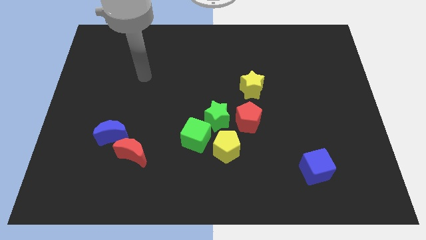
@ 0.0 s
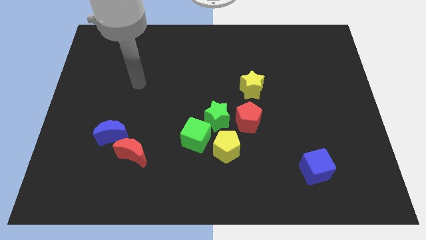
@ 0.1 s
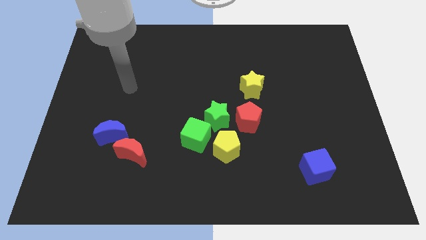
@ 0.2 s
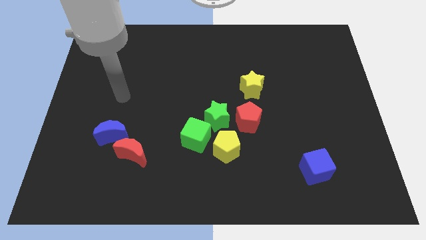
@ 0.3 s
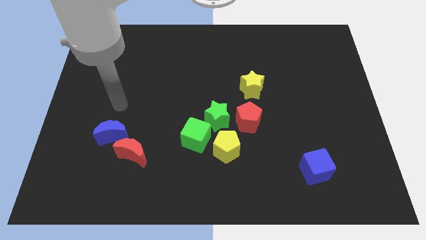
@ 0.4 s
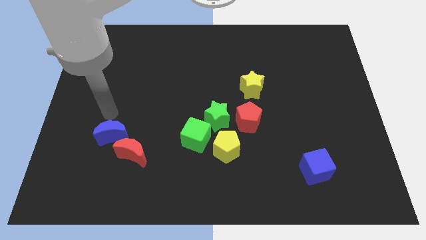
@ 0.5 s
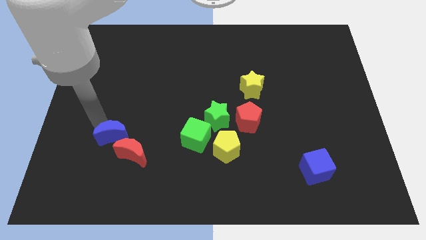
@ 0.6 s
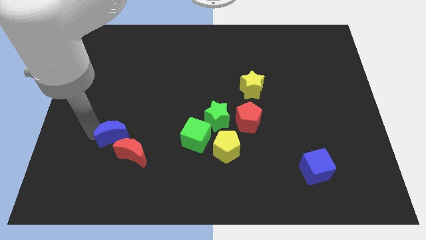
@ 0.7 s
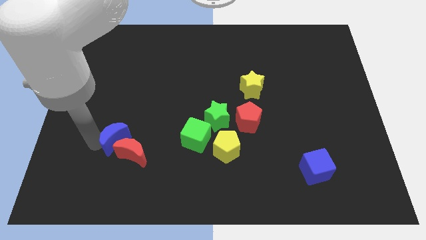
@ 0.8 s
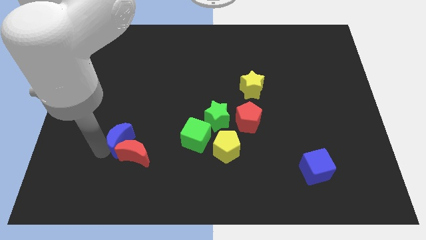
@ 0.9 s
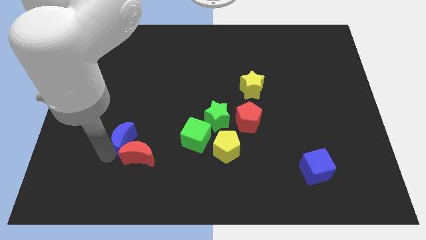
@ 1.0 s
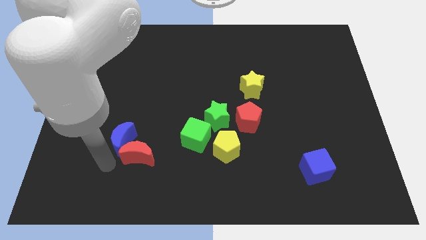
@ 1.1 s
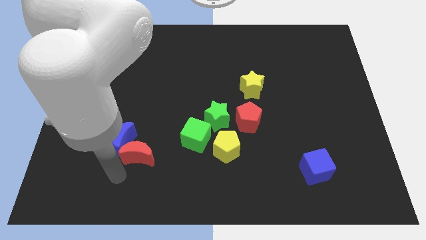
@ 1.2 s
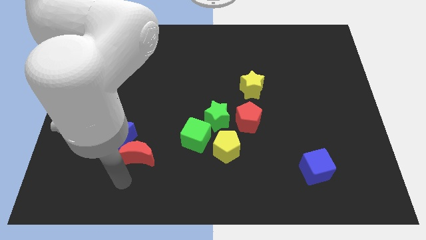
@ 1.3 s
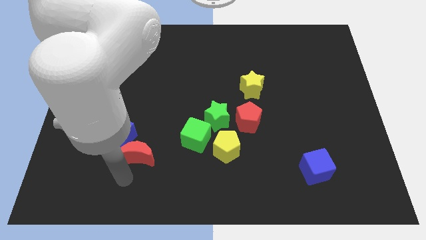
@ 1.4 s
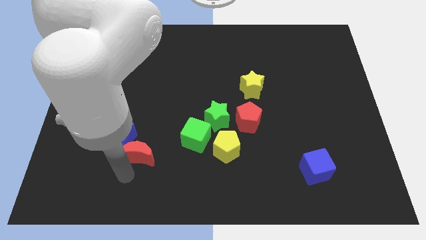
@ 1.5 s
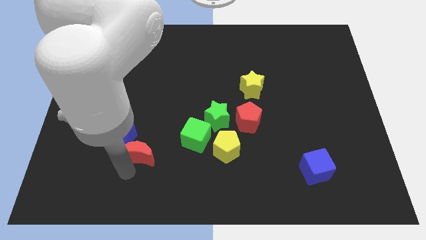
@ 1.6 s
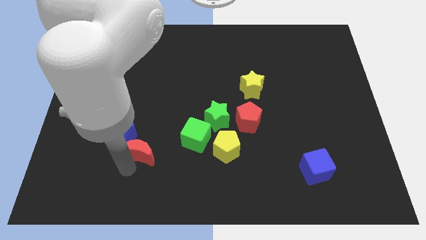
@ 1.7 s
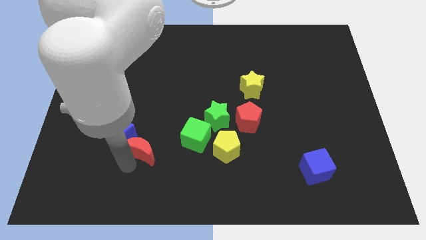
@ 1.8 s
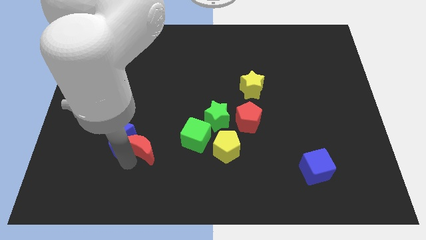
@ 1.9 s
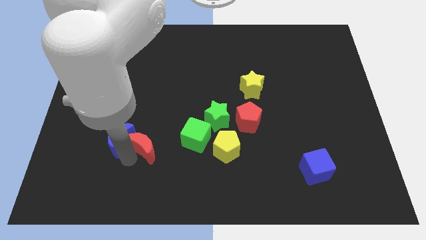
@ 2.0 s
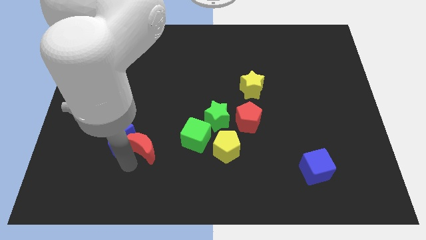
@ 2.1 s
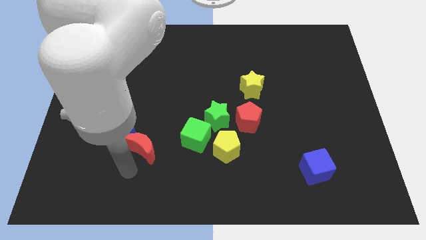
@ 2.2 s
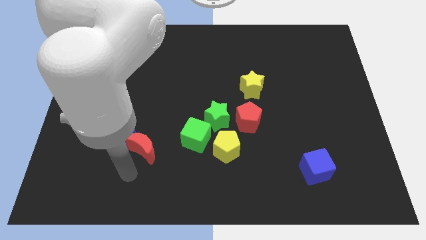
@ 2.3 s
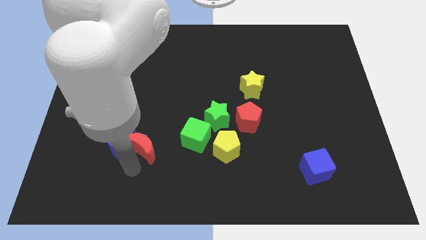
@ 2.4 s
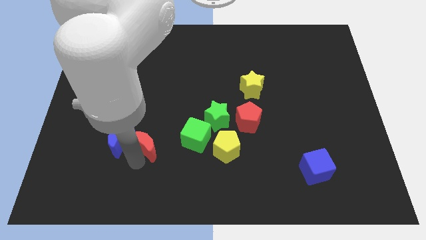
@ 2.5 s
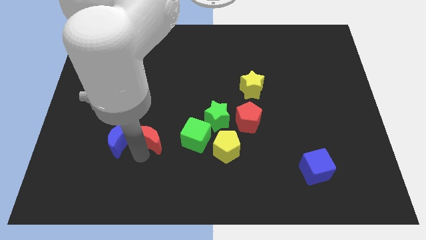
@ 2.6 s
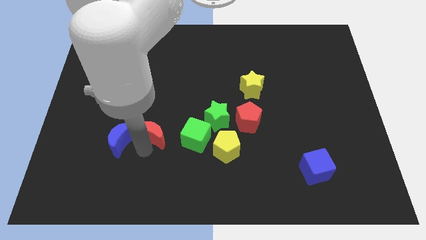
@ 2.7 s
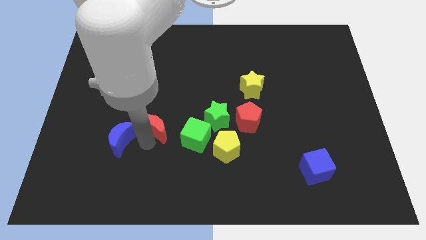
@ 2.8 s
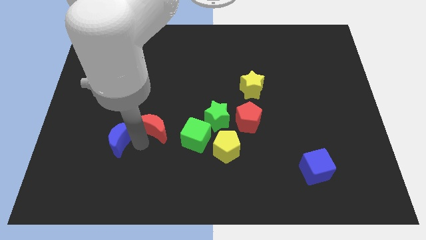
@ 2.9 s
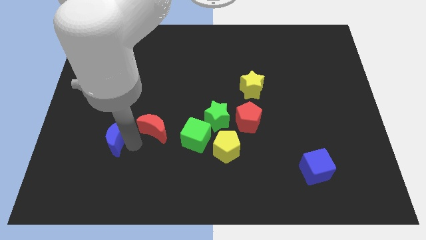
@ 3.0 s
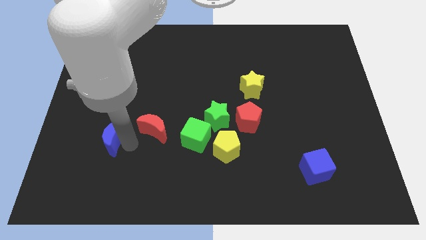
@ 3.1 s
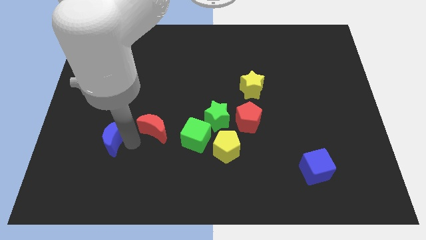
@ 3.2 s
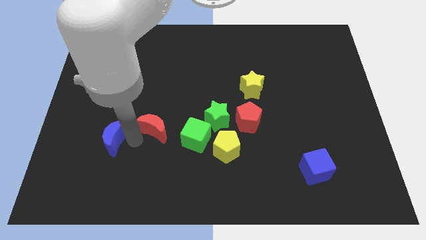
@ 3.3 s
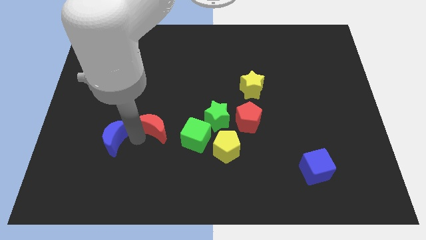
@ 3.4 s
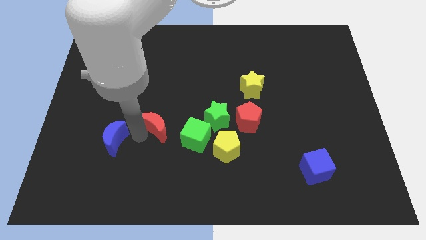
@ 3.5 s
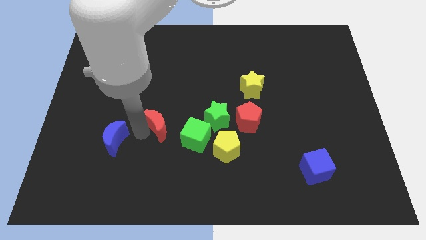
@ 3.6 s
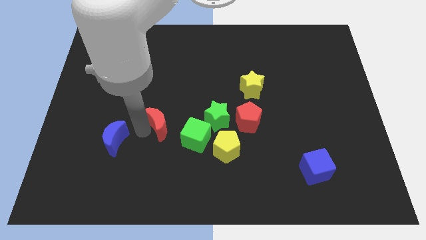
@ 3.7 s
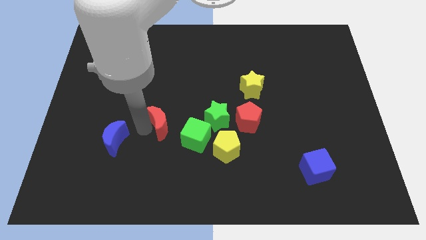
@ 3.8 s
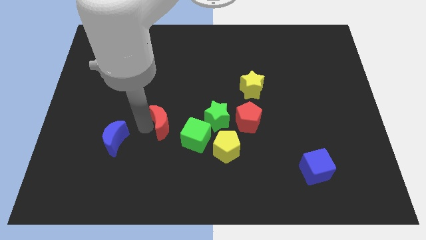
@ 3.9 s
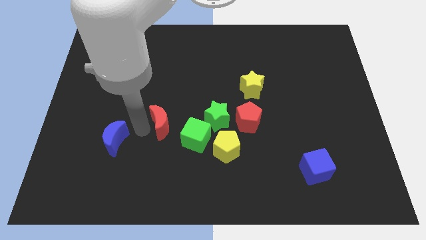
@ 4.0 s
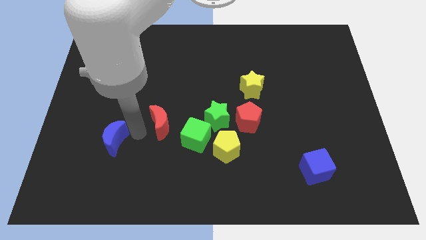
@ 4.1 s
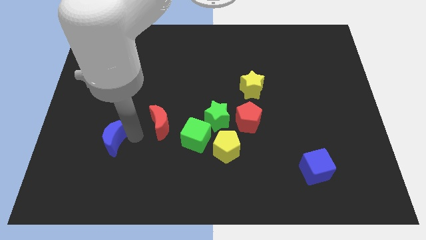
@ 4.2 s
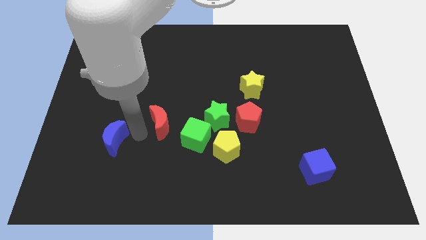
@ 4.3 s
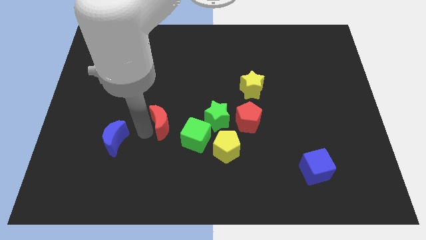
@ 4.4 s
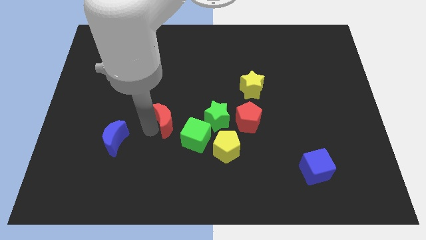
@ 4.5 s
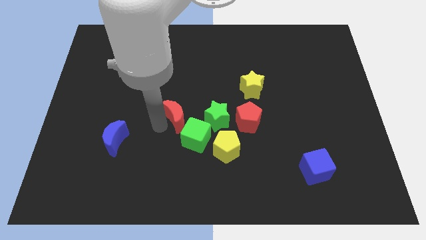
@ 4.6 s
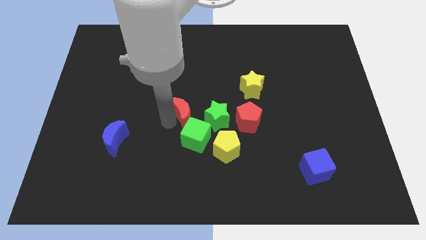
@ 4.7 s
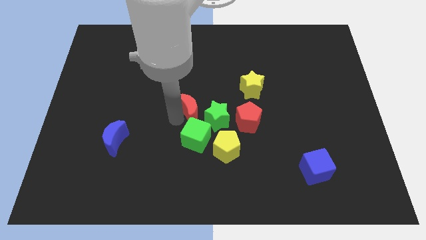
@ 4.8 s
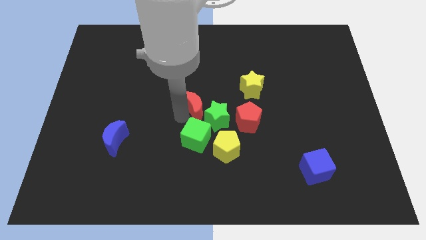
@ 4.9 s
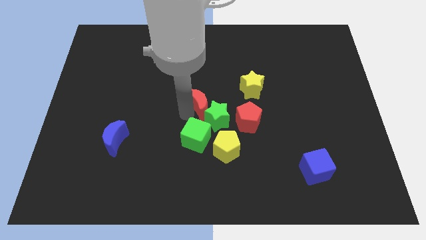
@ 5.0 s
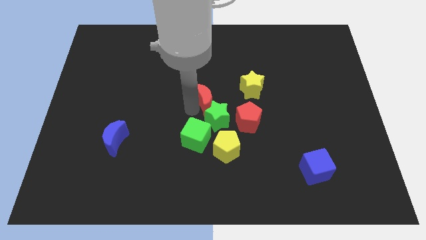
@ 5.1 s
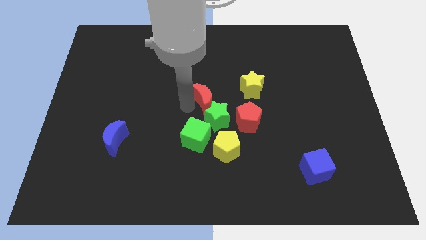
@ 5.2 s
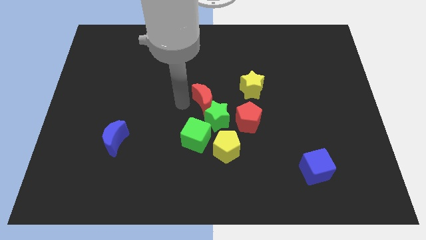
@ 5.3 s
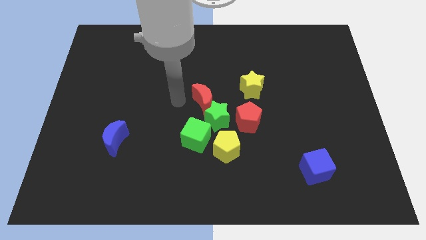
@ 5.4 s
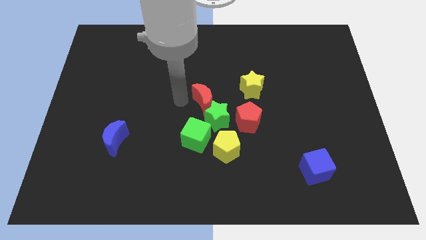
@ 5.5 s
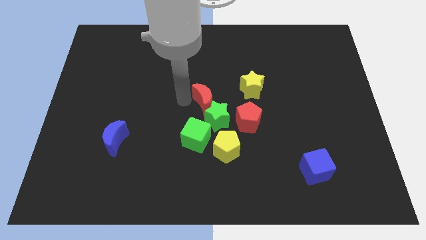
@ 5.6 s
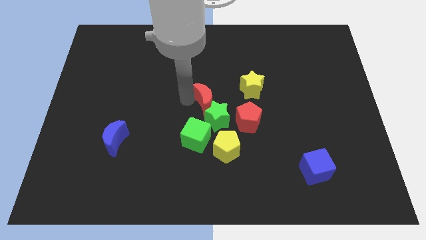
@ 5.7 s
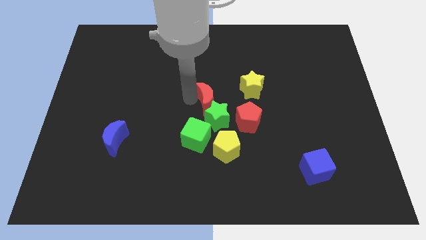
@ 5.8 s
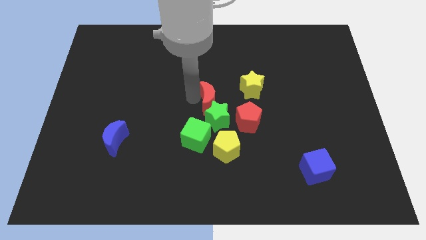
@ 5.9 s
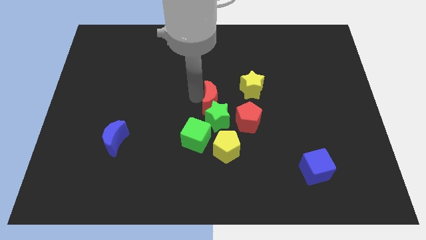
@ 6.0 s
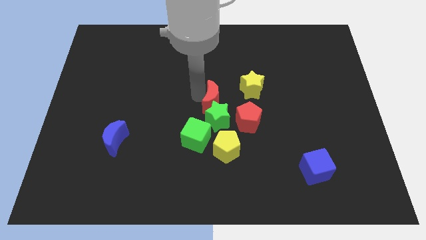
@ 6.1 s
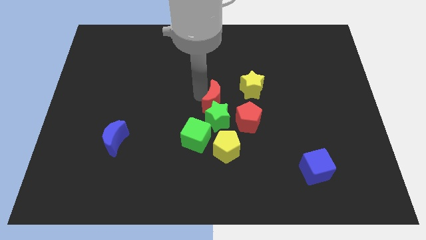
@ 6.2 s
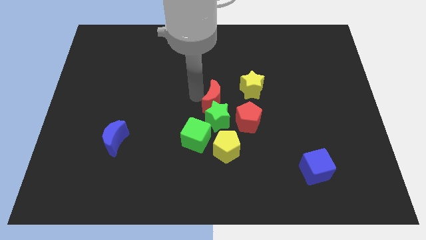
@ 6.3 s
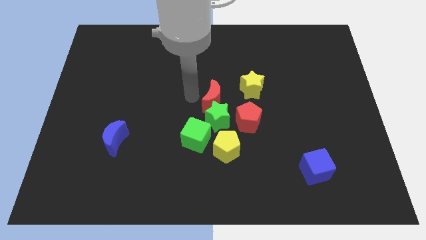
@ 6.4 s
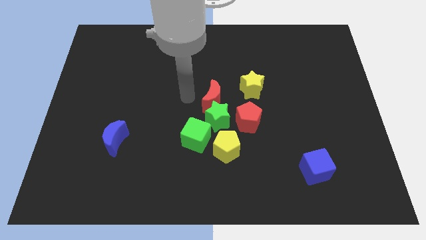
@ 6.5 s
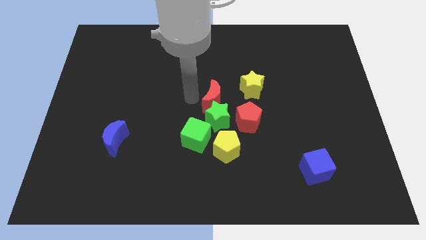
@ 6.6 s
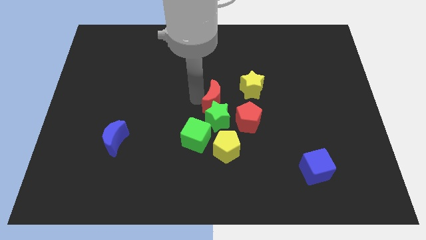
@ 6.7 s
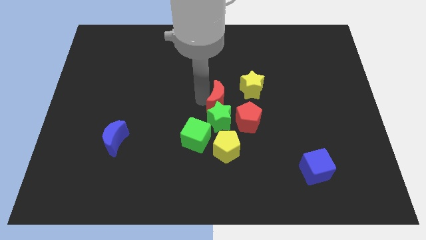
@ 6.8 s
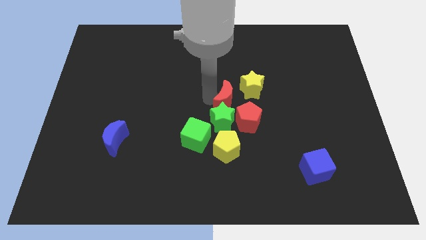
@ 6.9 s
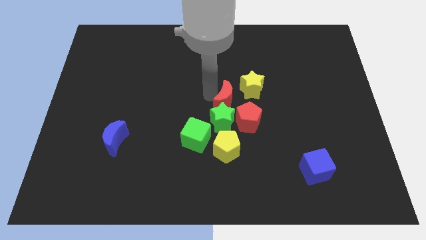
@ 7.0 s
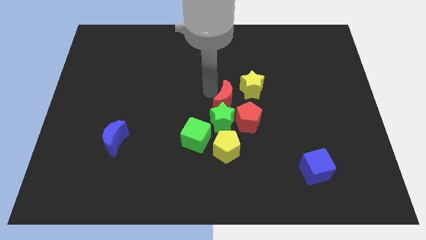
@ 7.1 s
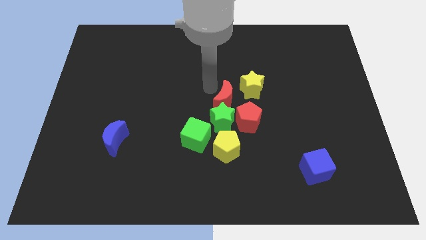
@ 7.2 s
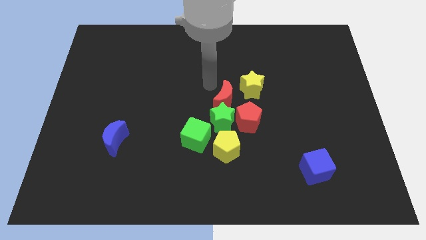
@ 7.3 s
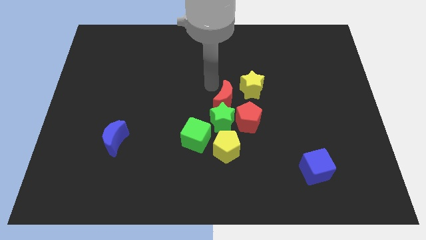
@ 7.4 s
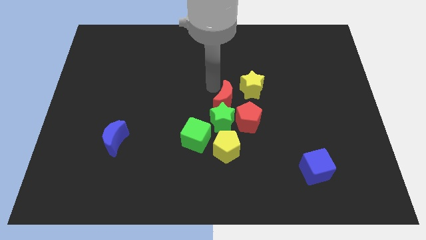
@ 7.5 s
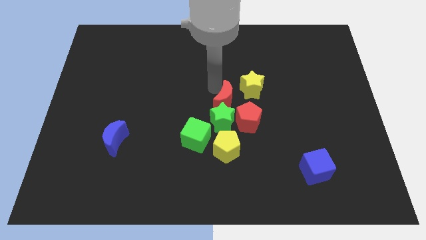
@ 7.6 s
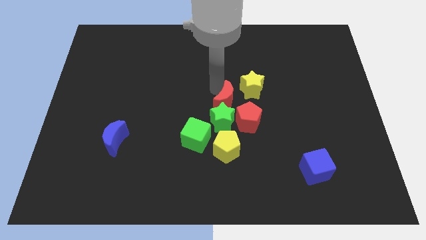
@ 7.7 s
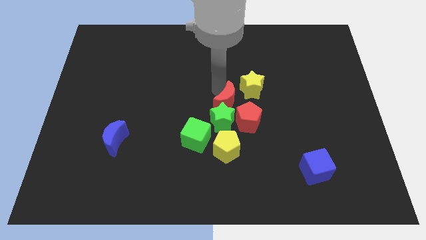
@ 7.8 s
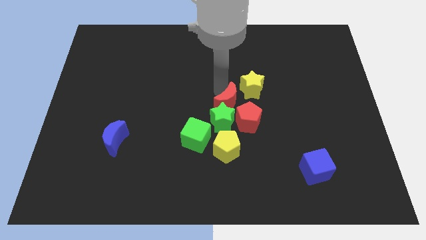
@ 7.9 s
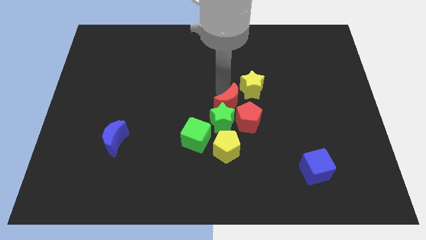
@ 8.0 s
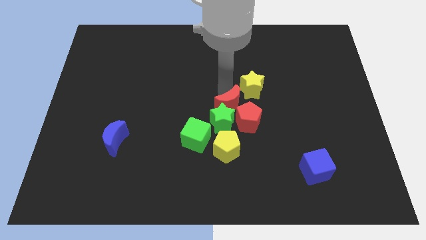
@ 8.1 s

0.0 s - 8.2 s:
move the red moon close to the red pentagon
